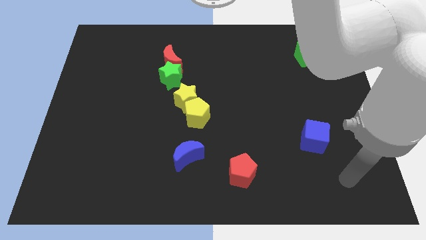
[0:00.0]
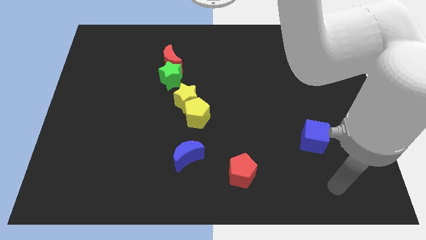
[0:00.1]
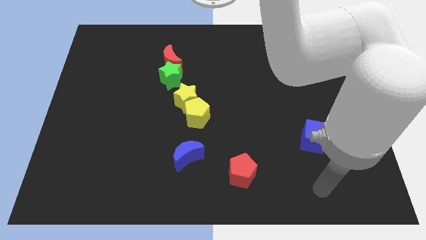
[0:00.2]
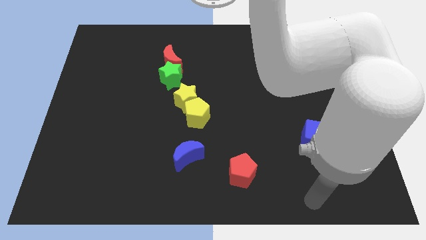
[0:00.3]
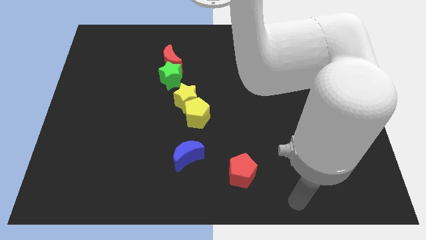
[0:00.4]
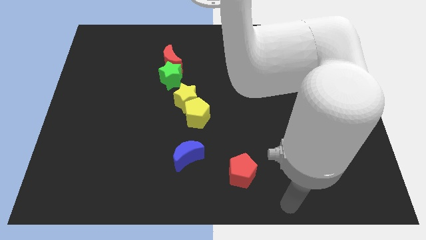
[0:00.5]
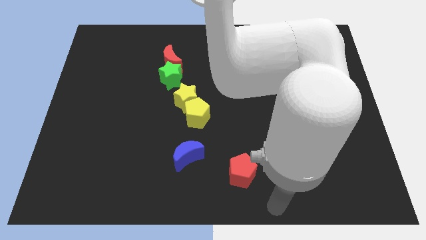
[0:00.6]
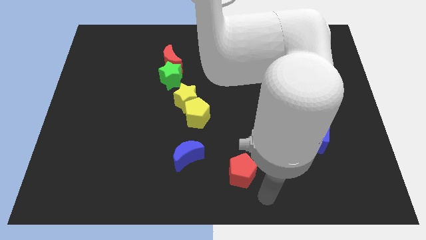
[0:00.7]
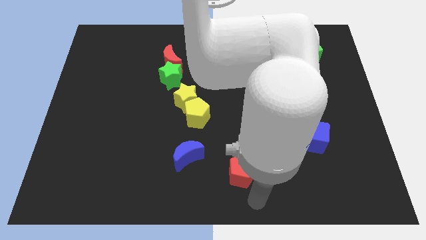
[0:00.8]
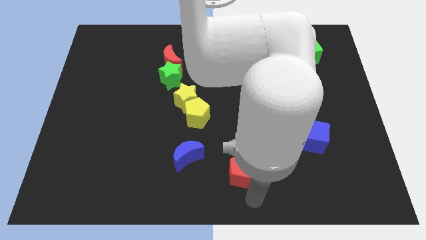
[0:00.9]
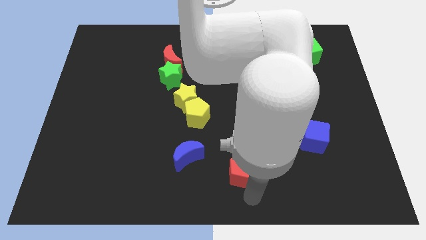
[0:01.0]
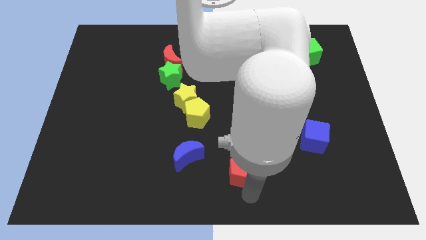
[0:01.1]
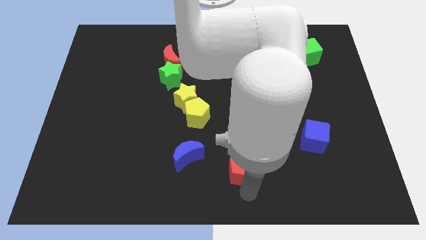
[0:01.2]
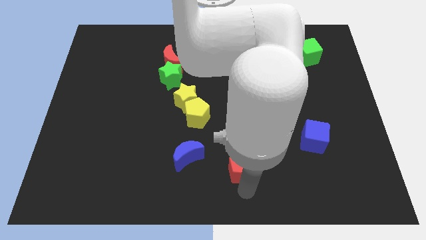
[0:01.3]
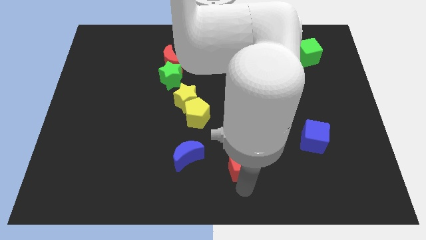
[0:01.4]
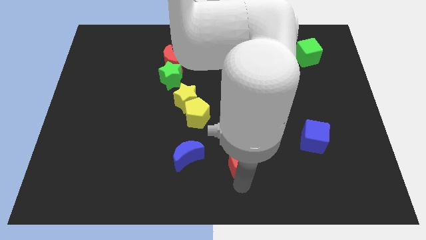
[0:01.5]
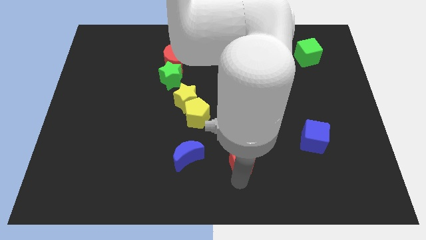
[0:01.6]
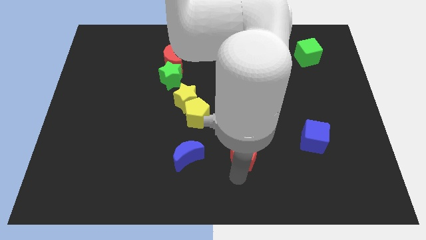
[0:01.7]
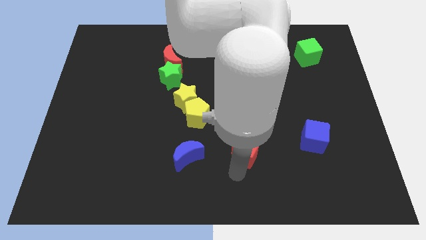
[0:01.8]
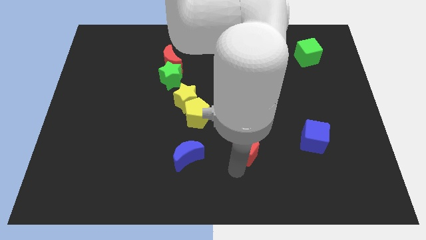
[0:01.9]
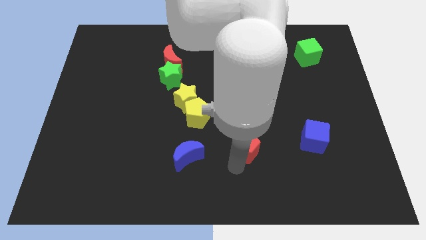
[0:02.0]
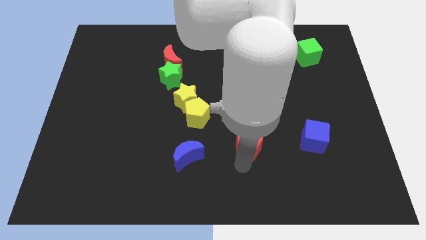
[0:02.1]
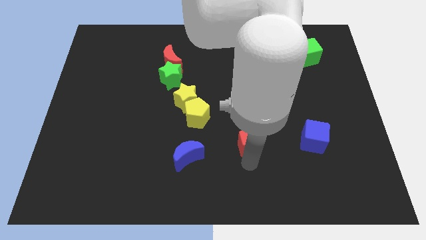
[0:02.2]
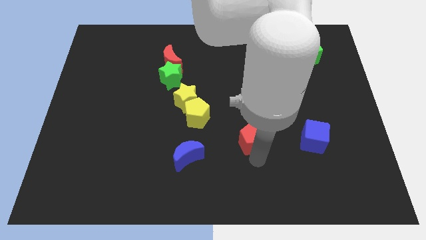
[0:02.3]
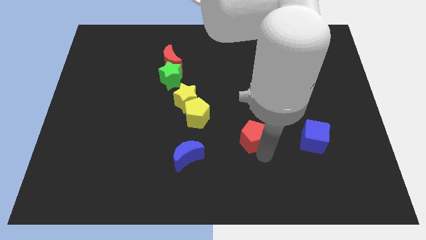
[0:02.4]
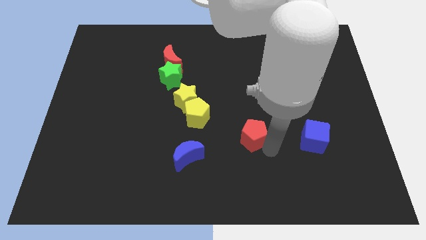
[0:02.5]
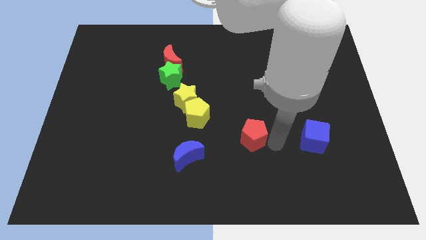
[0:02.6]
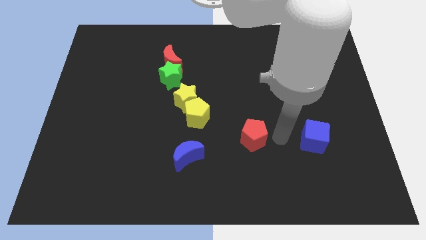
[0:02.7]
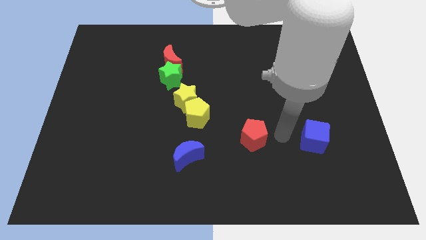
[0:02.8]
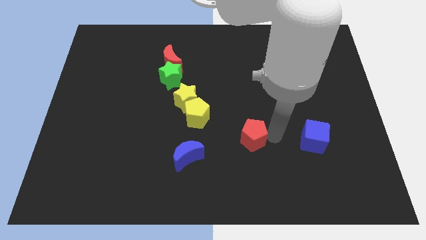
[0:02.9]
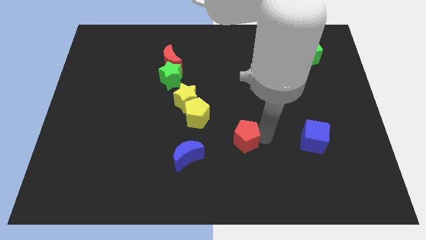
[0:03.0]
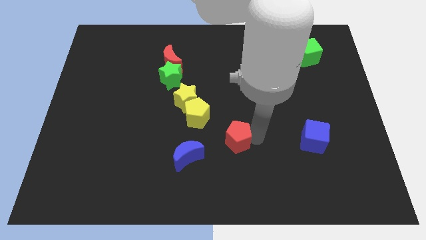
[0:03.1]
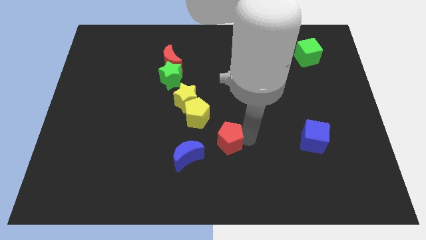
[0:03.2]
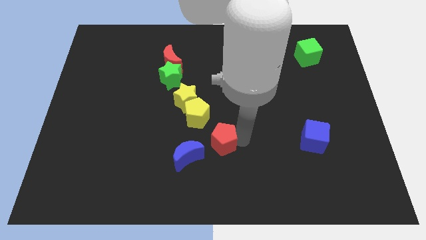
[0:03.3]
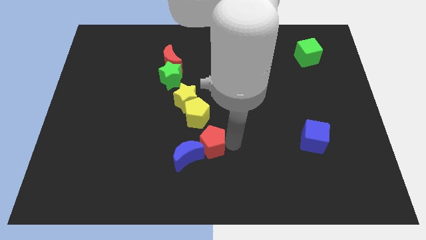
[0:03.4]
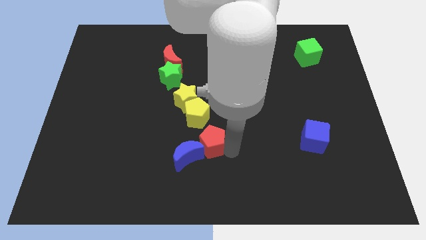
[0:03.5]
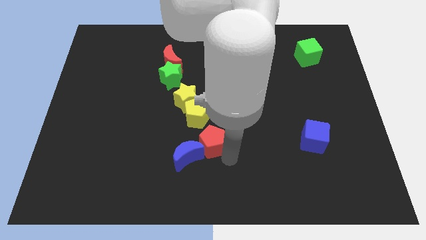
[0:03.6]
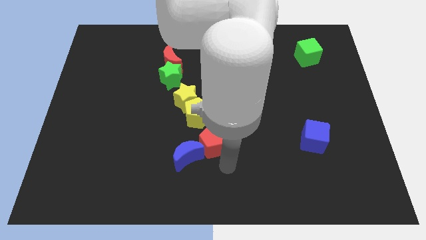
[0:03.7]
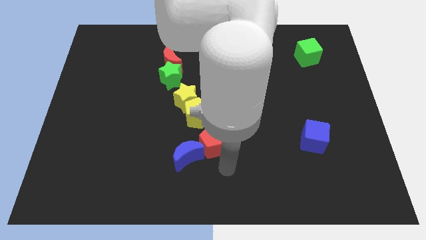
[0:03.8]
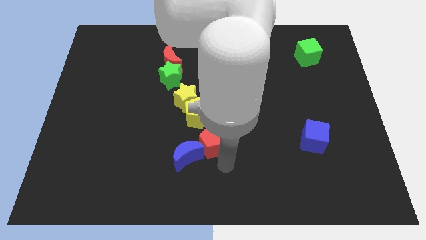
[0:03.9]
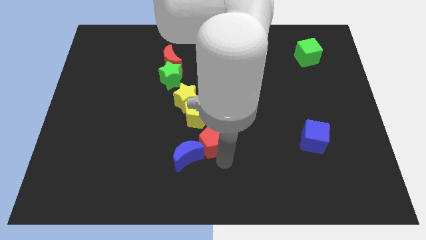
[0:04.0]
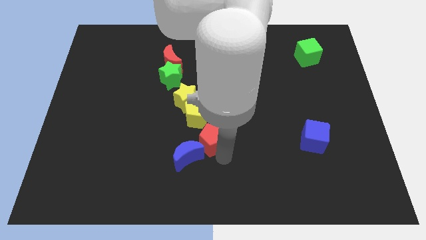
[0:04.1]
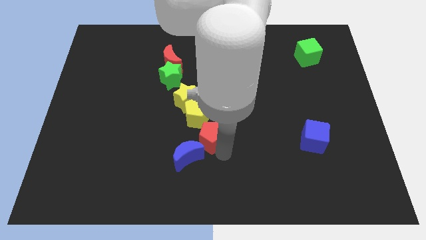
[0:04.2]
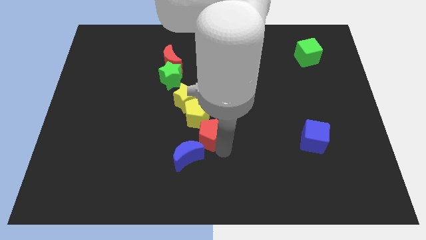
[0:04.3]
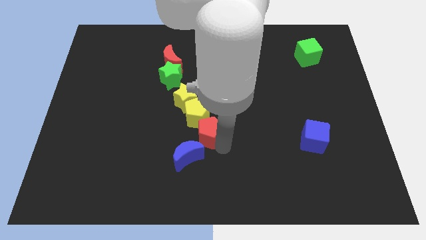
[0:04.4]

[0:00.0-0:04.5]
slide the red pentagon next to the yellow pentagon

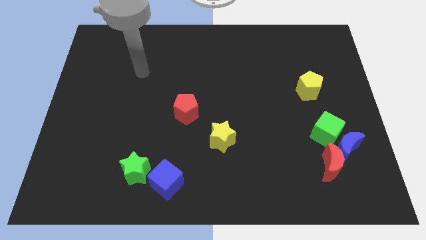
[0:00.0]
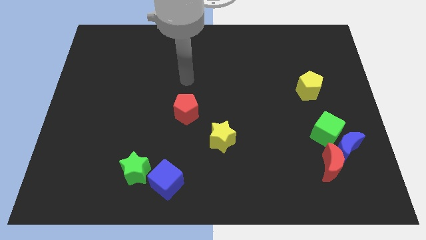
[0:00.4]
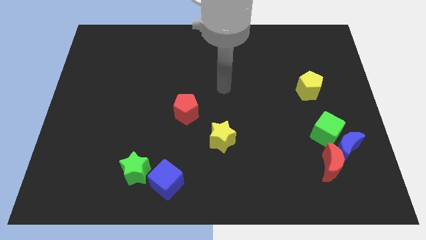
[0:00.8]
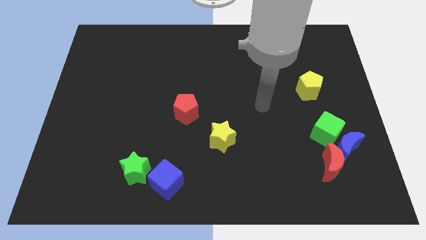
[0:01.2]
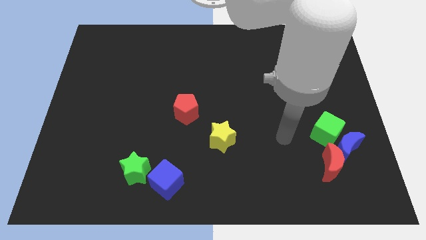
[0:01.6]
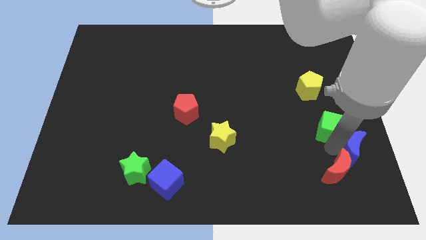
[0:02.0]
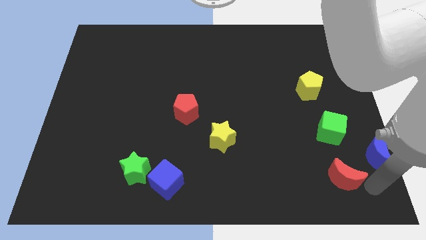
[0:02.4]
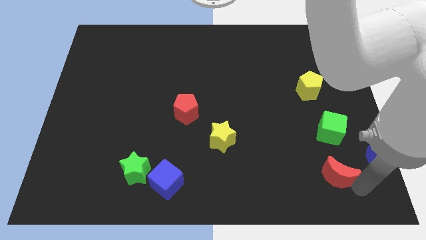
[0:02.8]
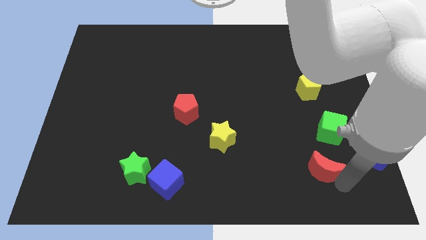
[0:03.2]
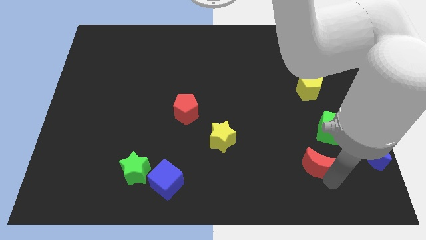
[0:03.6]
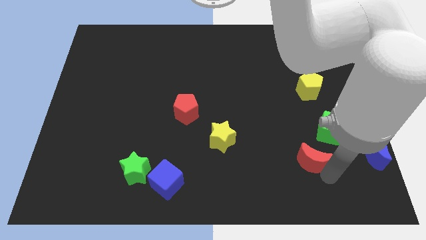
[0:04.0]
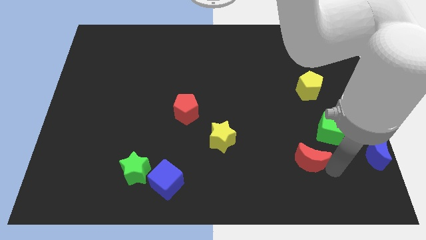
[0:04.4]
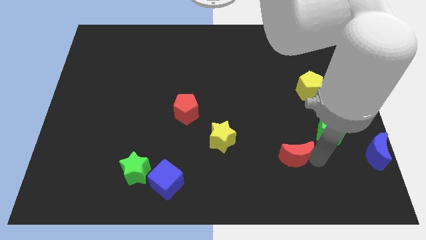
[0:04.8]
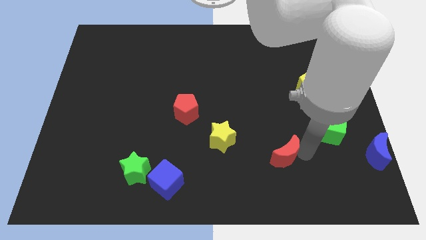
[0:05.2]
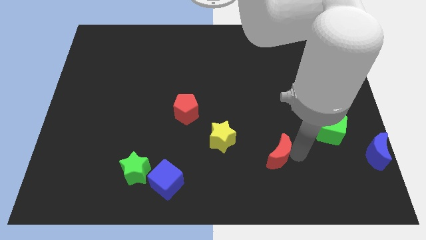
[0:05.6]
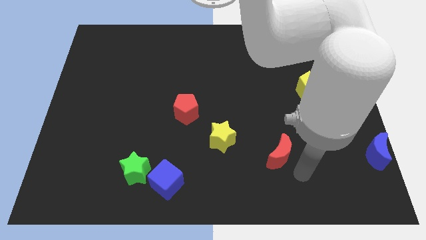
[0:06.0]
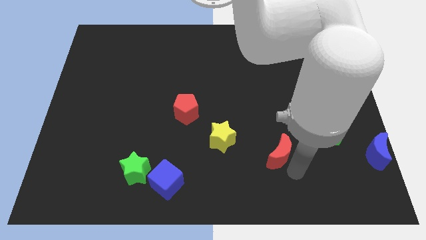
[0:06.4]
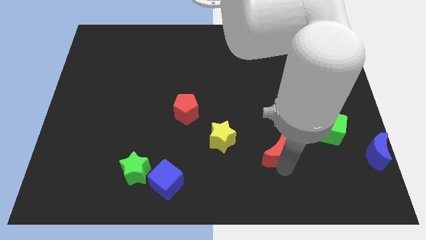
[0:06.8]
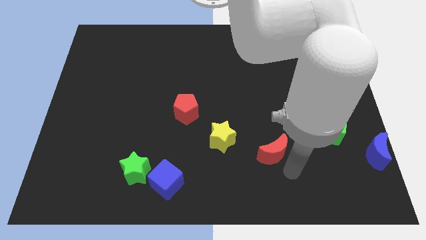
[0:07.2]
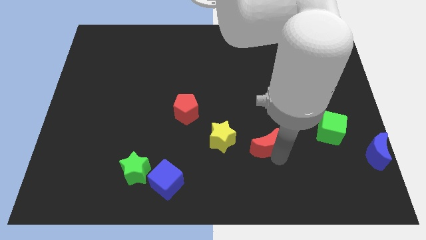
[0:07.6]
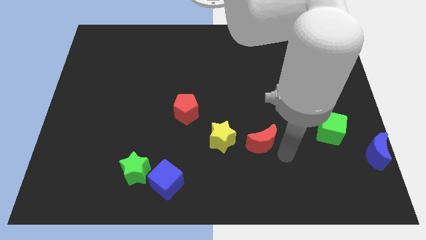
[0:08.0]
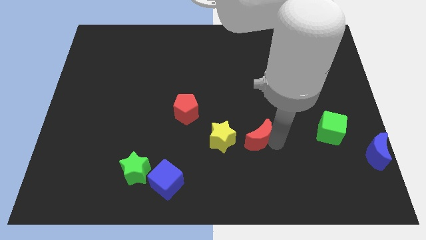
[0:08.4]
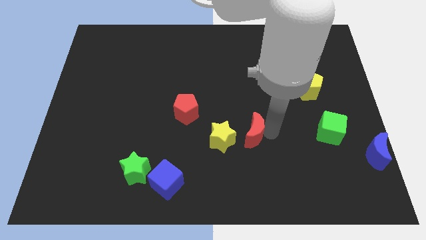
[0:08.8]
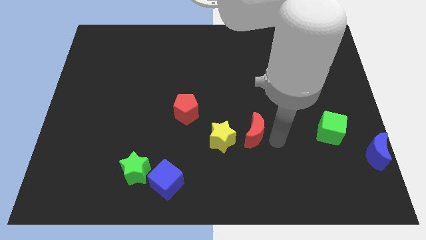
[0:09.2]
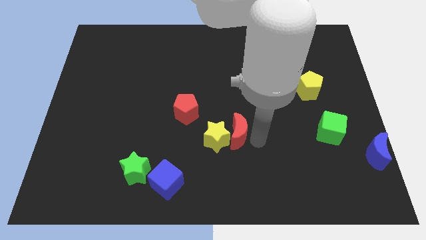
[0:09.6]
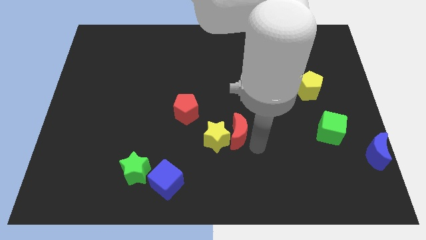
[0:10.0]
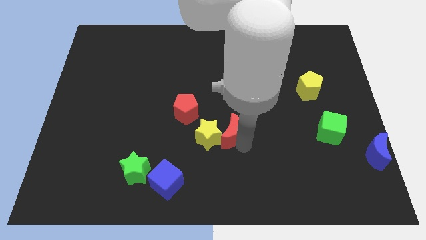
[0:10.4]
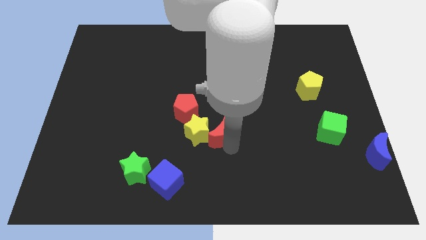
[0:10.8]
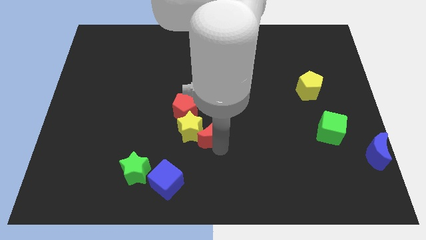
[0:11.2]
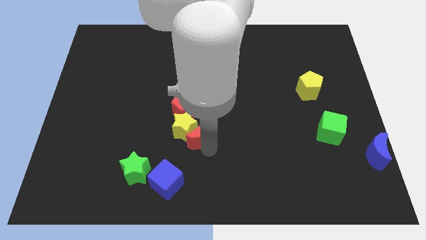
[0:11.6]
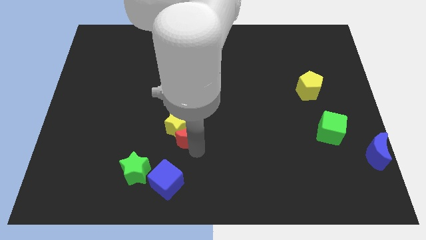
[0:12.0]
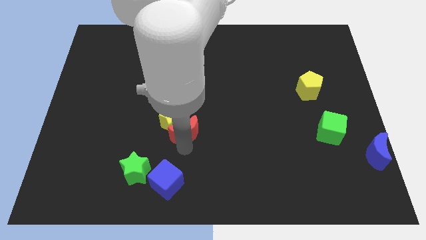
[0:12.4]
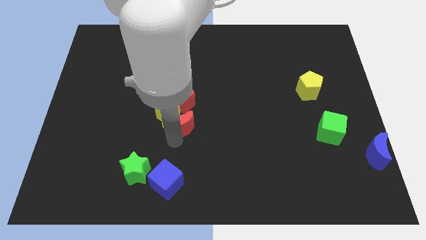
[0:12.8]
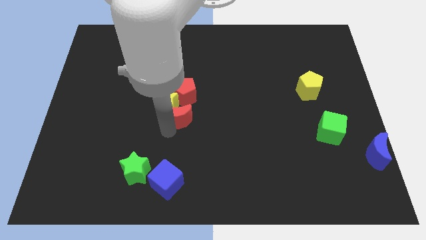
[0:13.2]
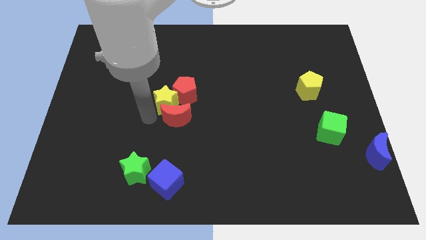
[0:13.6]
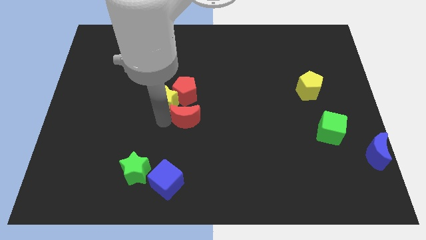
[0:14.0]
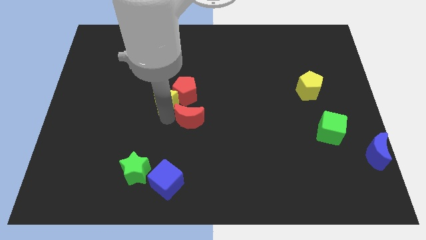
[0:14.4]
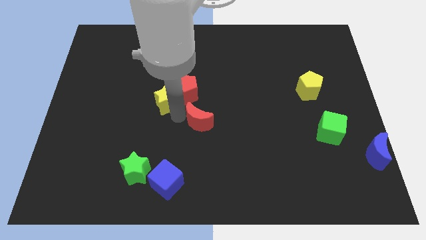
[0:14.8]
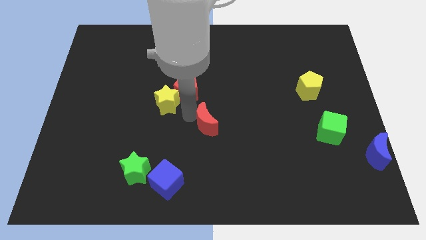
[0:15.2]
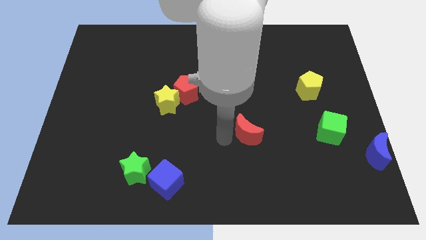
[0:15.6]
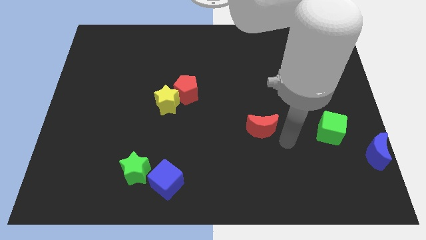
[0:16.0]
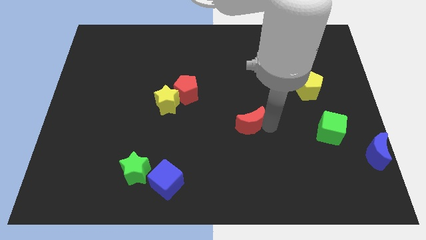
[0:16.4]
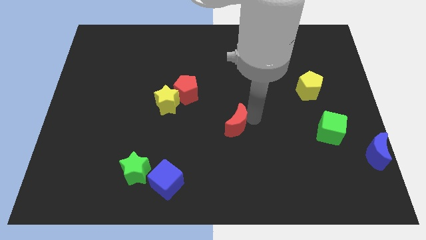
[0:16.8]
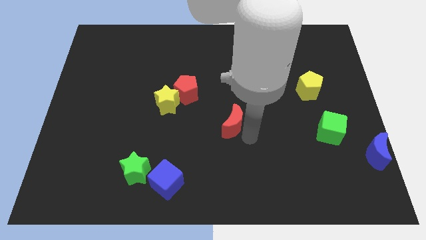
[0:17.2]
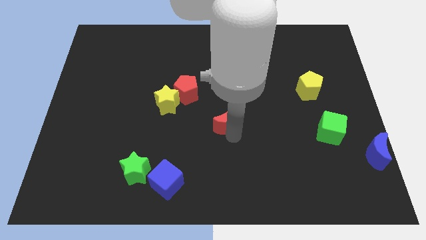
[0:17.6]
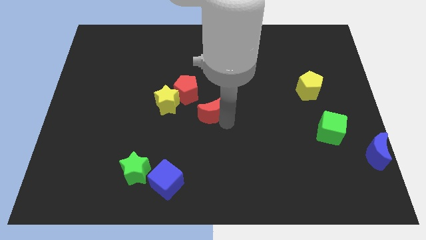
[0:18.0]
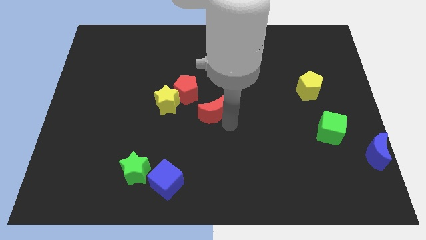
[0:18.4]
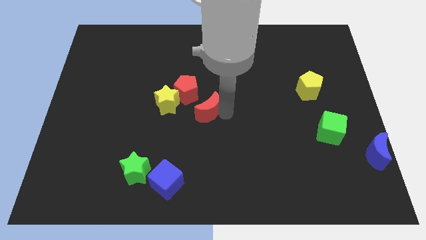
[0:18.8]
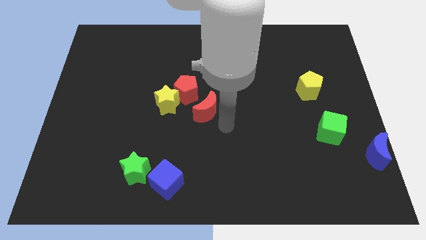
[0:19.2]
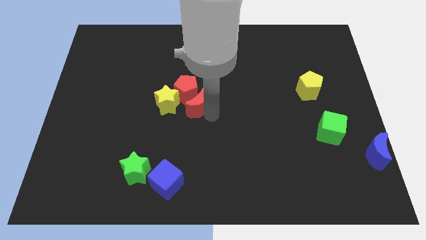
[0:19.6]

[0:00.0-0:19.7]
push the red moon to the red pentagon
